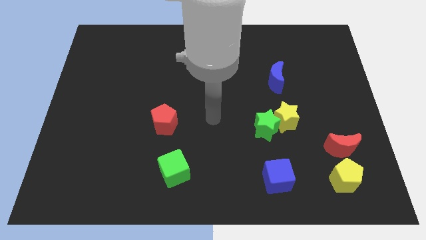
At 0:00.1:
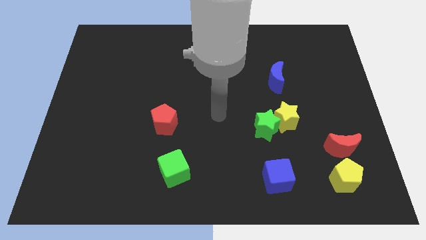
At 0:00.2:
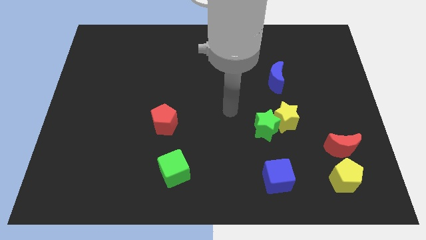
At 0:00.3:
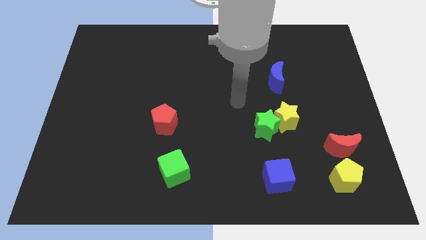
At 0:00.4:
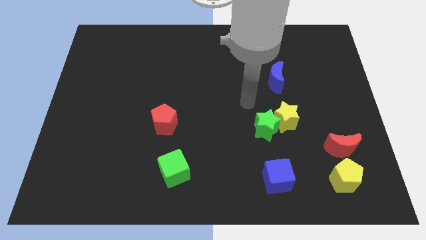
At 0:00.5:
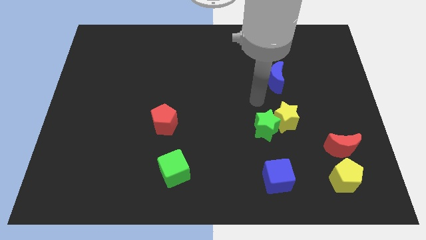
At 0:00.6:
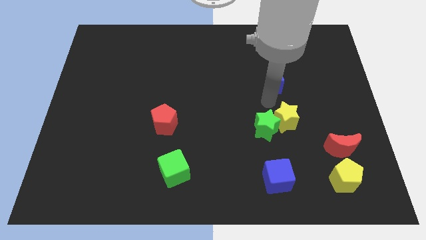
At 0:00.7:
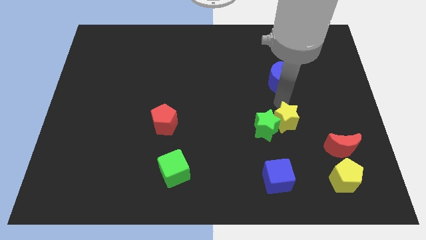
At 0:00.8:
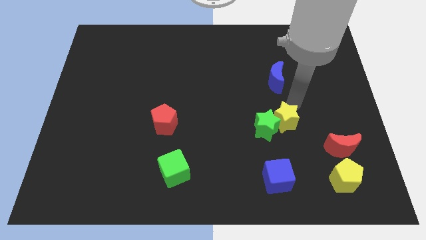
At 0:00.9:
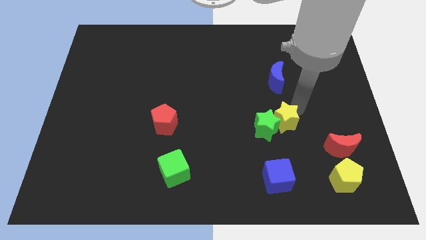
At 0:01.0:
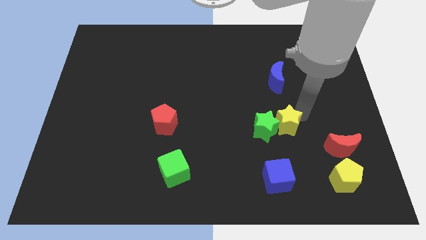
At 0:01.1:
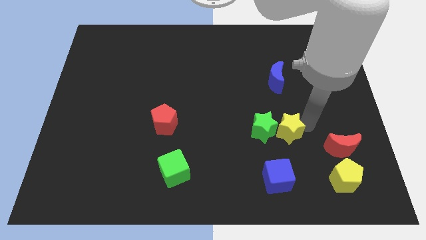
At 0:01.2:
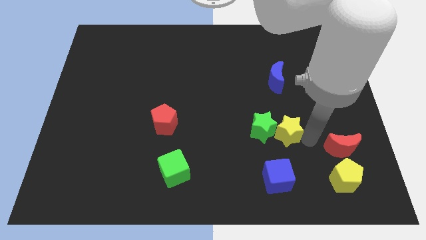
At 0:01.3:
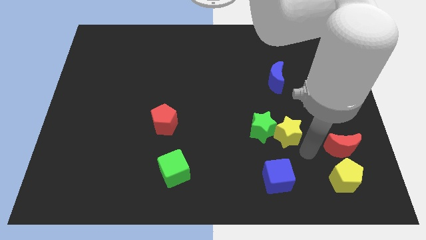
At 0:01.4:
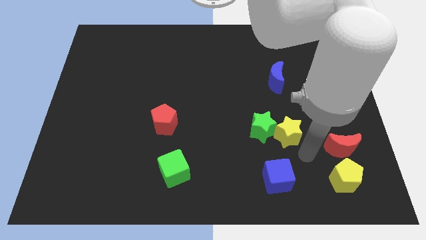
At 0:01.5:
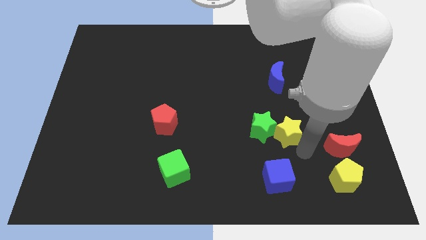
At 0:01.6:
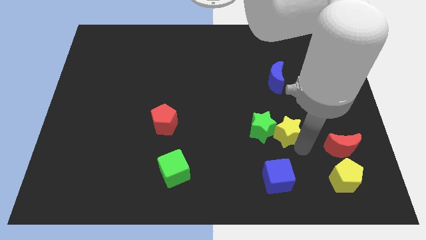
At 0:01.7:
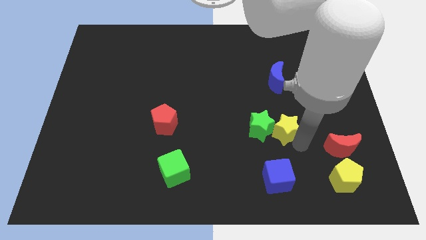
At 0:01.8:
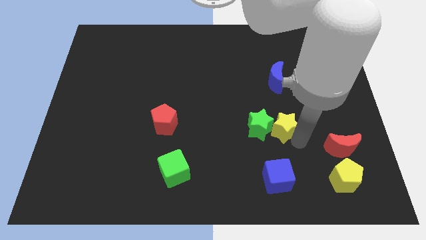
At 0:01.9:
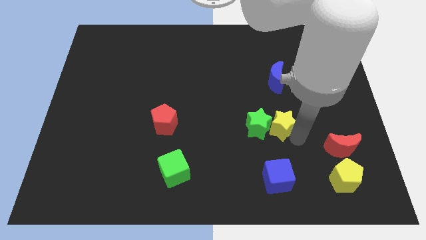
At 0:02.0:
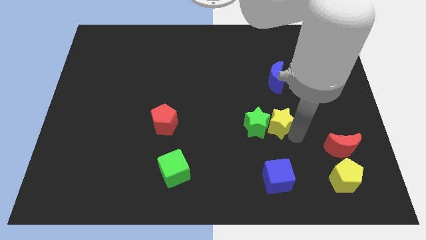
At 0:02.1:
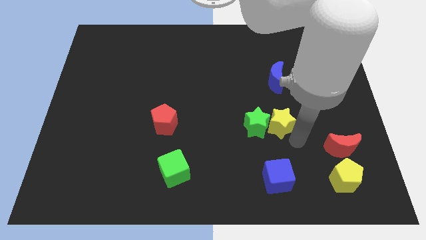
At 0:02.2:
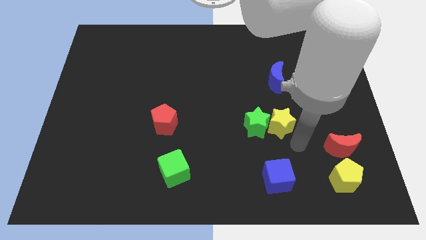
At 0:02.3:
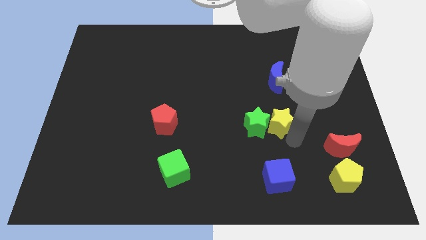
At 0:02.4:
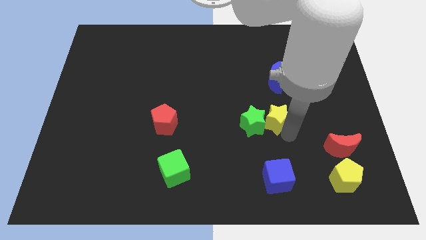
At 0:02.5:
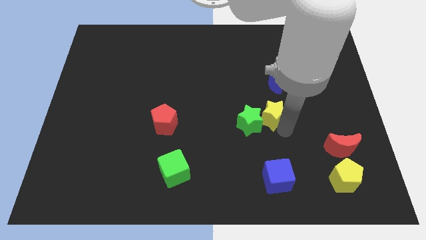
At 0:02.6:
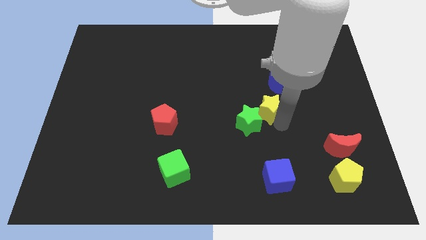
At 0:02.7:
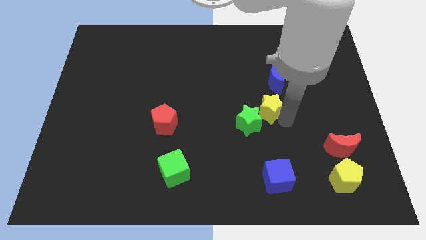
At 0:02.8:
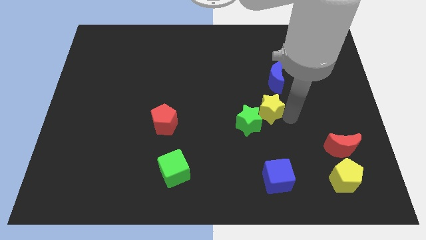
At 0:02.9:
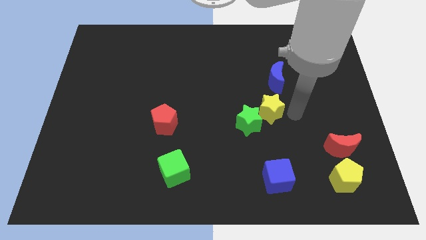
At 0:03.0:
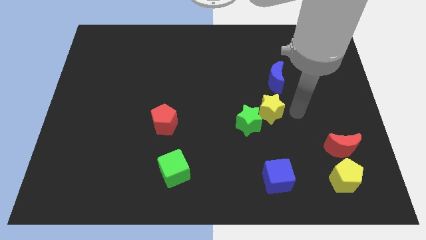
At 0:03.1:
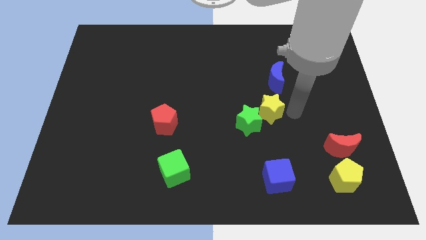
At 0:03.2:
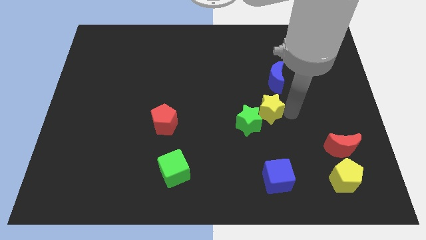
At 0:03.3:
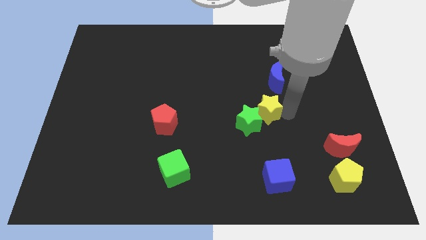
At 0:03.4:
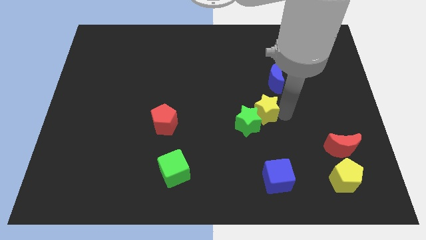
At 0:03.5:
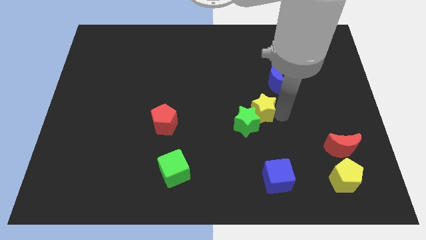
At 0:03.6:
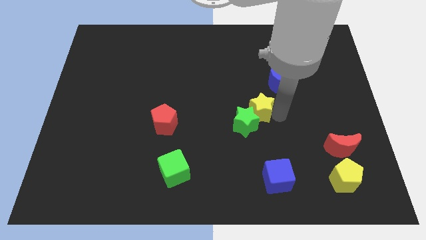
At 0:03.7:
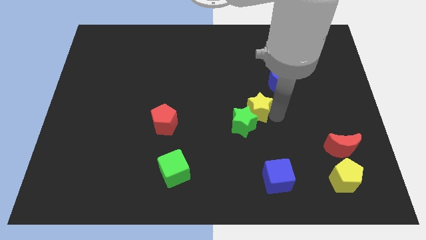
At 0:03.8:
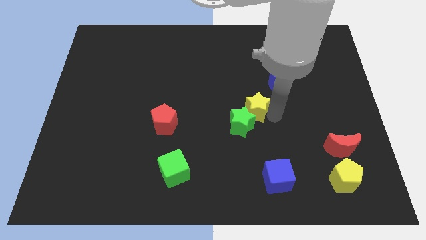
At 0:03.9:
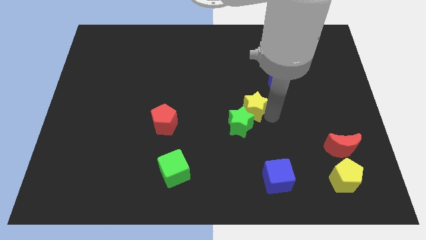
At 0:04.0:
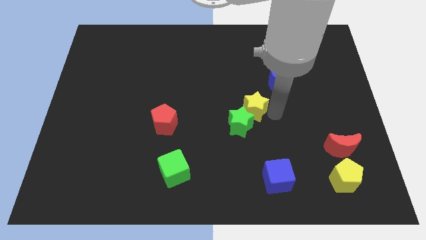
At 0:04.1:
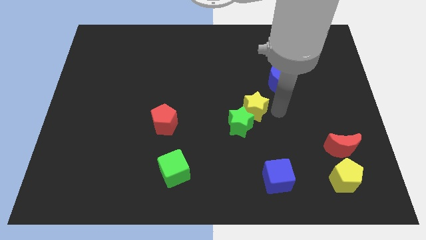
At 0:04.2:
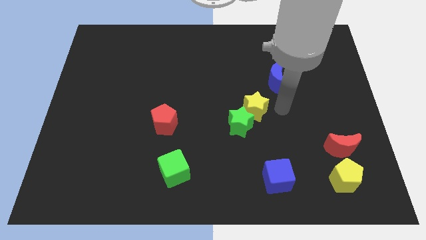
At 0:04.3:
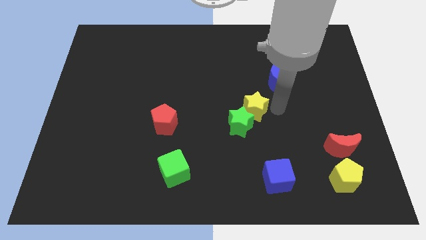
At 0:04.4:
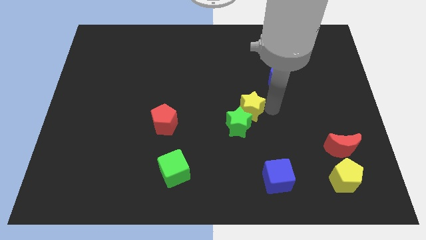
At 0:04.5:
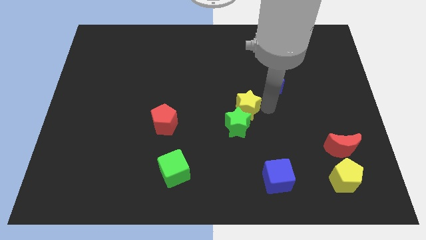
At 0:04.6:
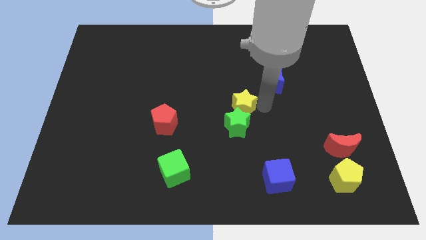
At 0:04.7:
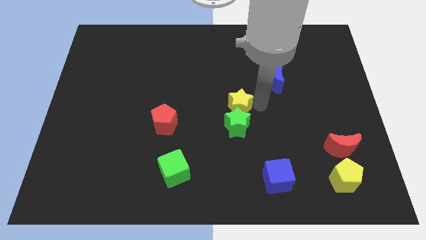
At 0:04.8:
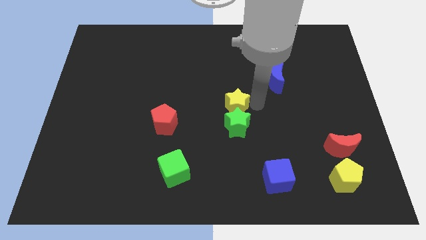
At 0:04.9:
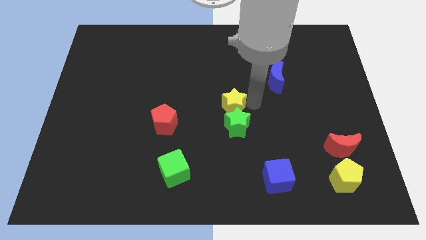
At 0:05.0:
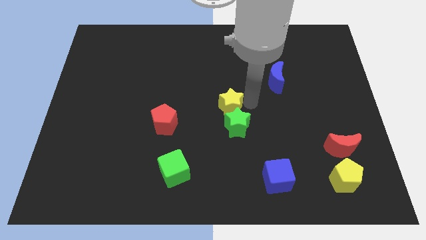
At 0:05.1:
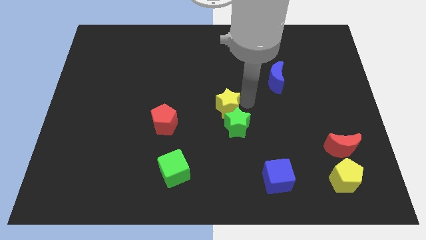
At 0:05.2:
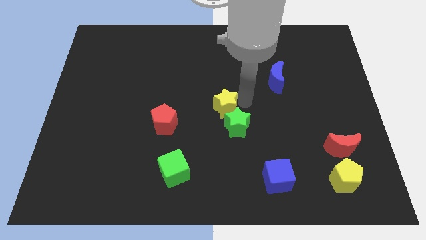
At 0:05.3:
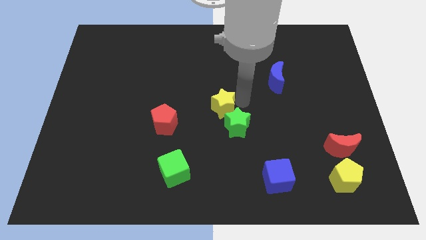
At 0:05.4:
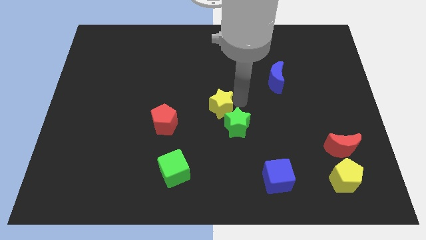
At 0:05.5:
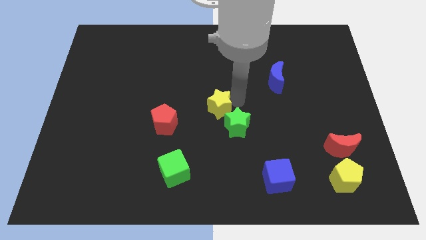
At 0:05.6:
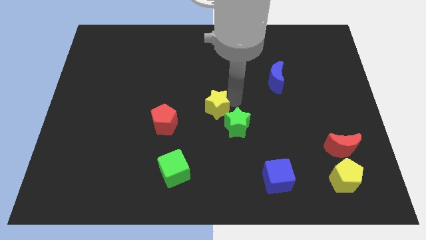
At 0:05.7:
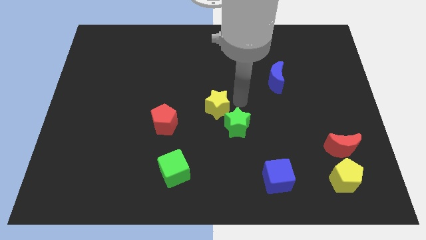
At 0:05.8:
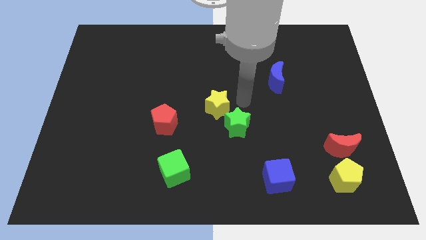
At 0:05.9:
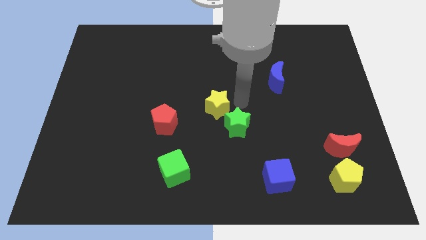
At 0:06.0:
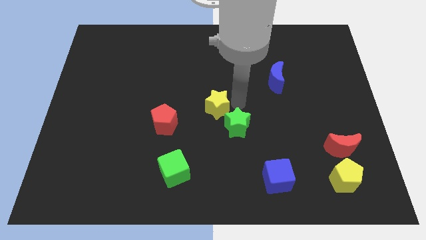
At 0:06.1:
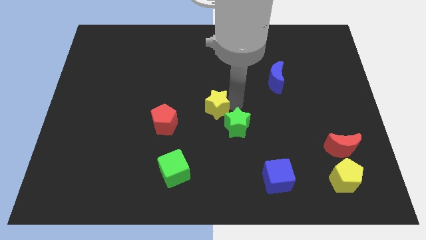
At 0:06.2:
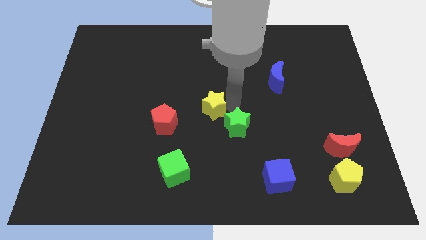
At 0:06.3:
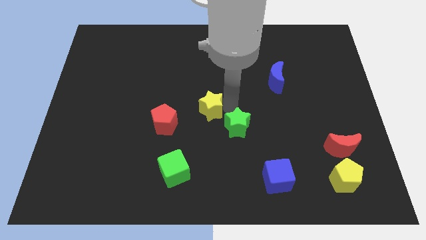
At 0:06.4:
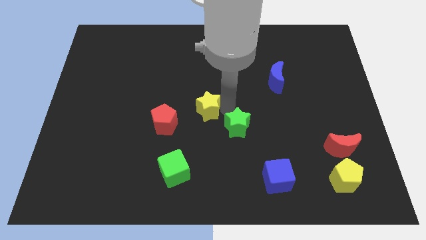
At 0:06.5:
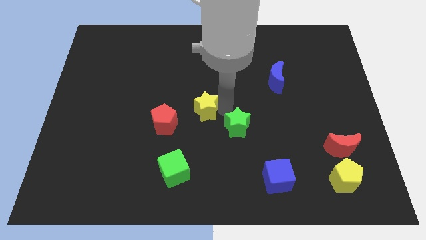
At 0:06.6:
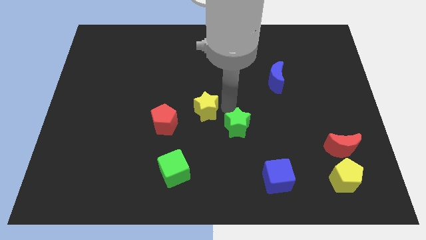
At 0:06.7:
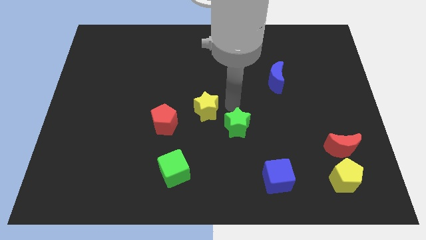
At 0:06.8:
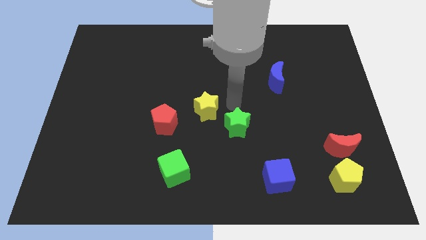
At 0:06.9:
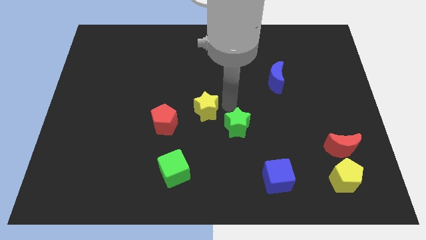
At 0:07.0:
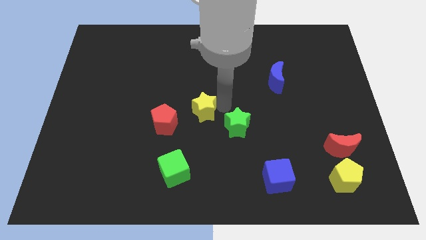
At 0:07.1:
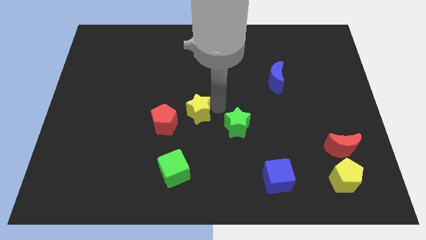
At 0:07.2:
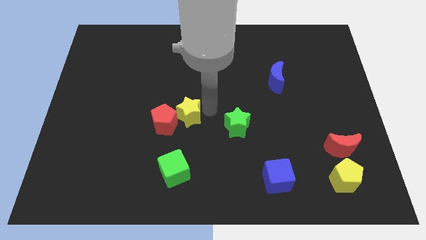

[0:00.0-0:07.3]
slide the yellow star to the left

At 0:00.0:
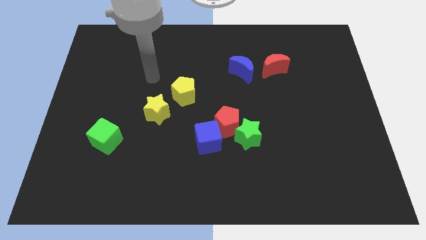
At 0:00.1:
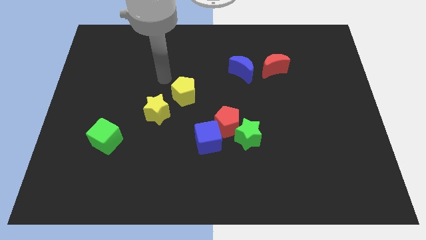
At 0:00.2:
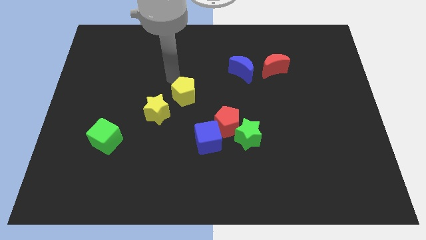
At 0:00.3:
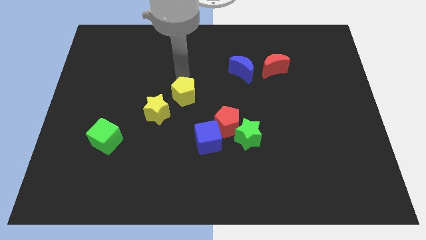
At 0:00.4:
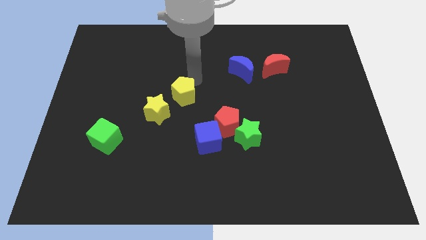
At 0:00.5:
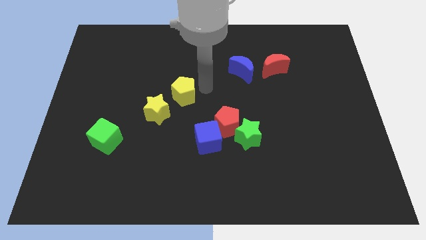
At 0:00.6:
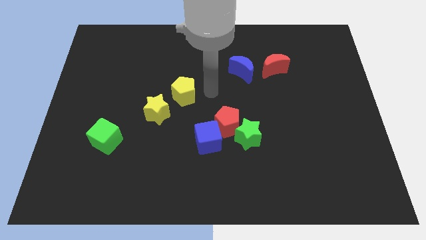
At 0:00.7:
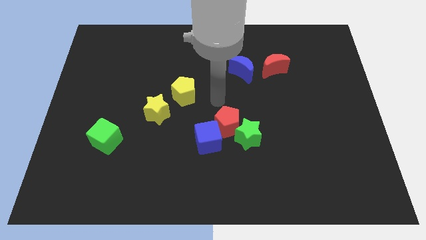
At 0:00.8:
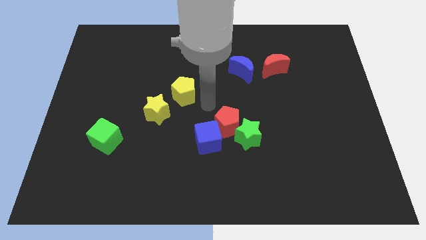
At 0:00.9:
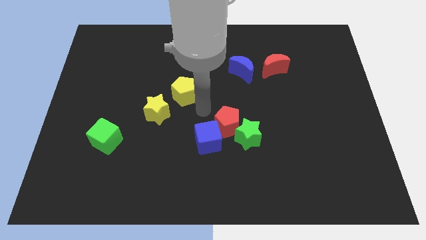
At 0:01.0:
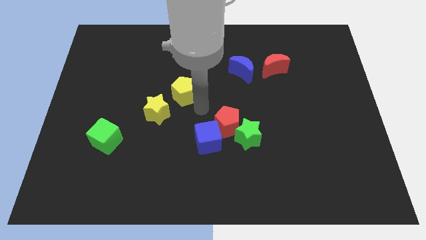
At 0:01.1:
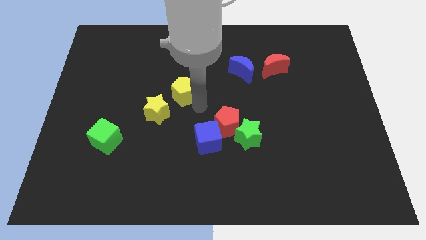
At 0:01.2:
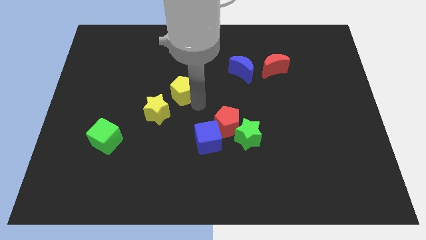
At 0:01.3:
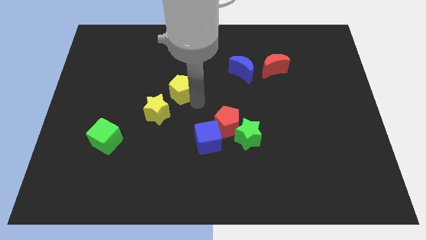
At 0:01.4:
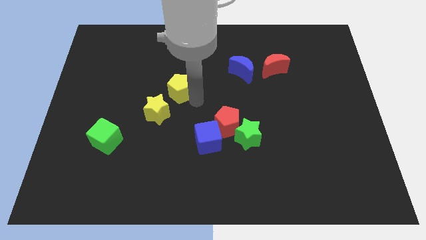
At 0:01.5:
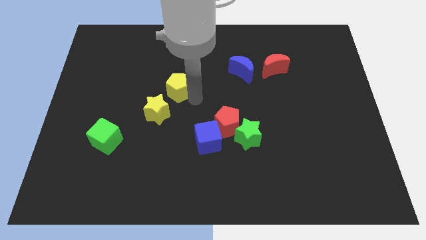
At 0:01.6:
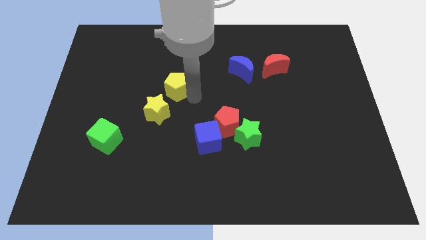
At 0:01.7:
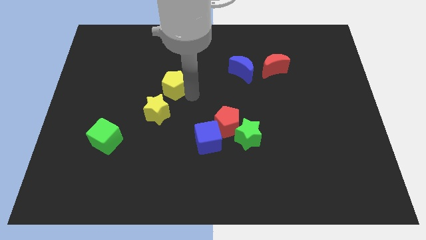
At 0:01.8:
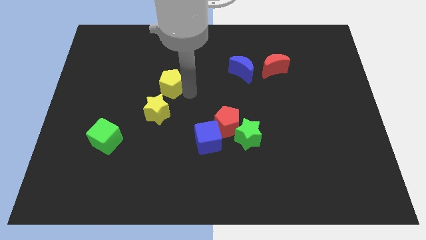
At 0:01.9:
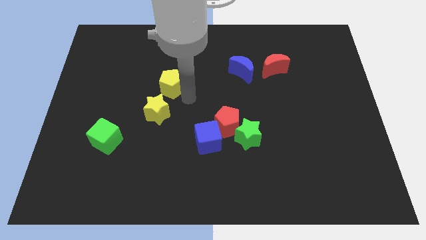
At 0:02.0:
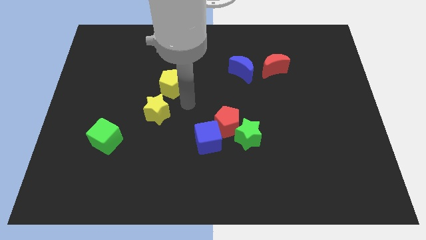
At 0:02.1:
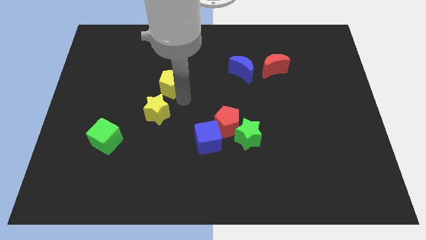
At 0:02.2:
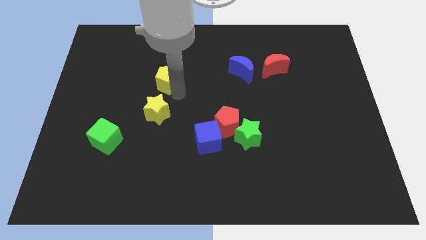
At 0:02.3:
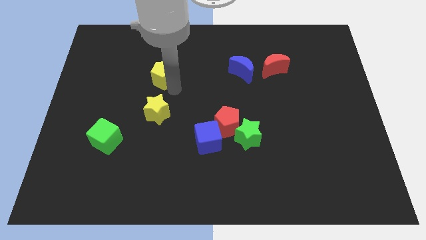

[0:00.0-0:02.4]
push the yellow pentagon a bit up and then left
